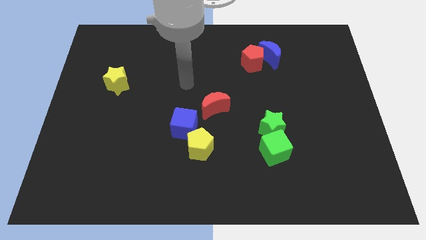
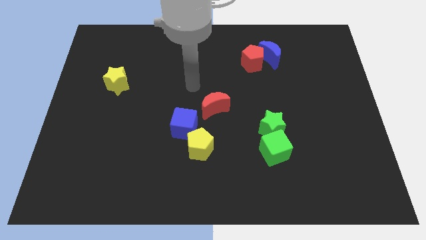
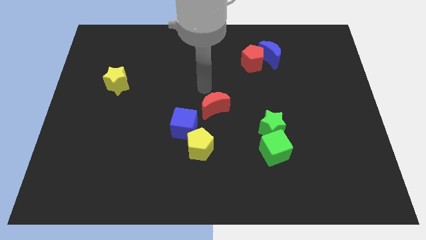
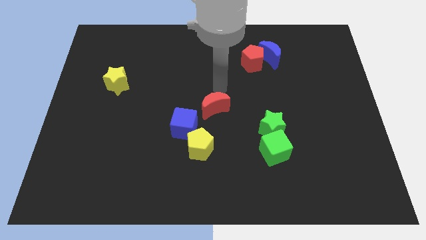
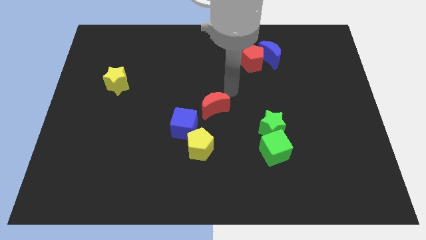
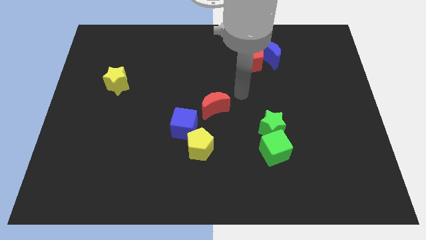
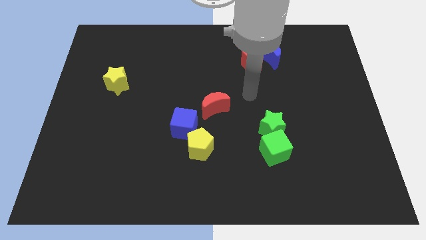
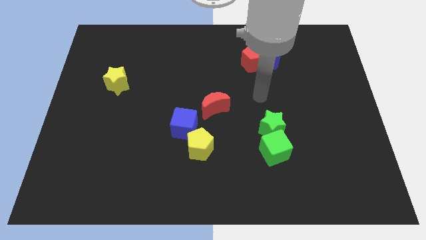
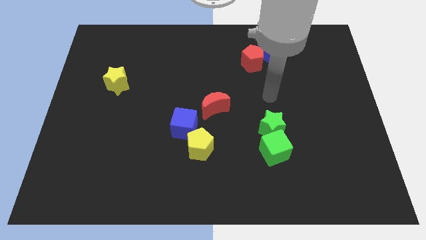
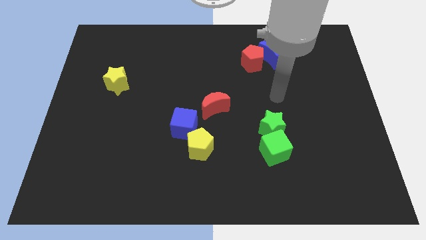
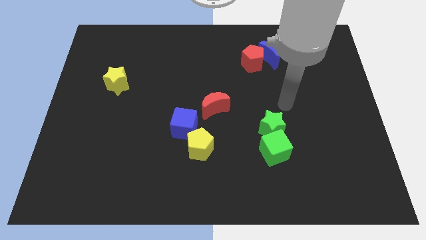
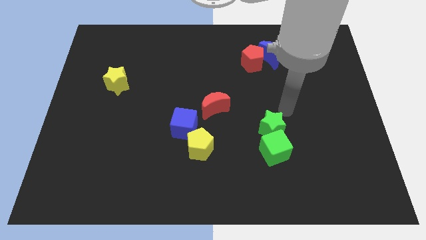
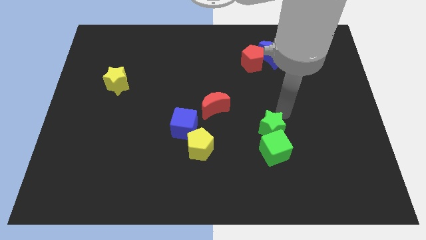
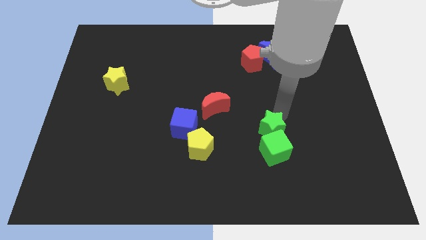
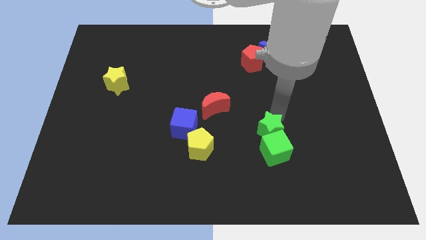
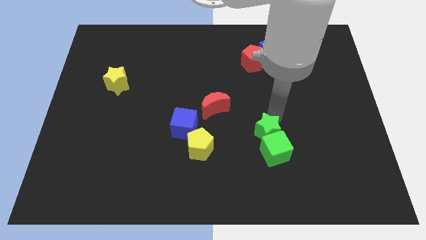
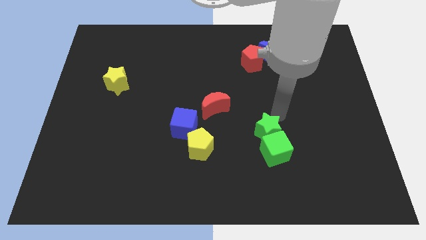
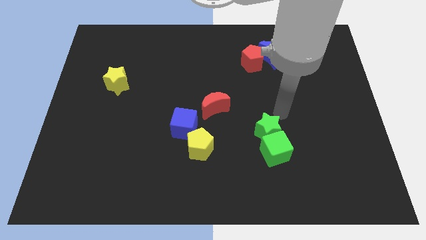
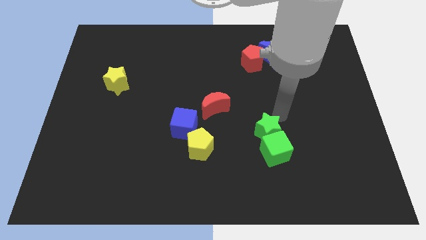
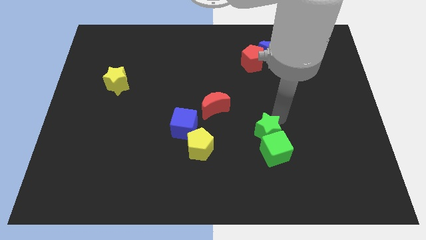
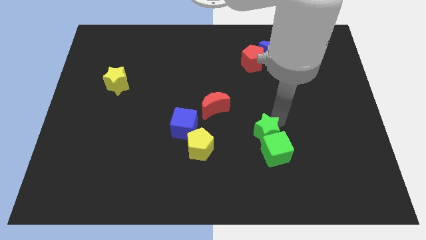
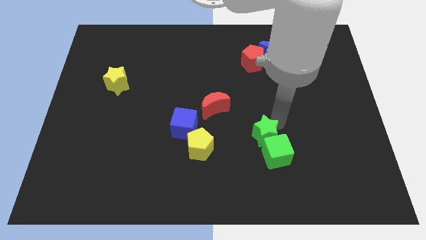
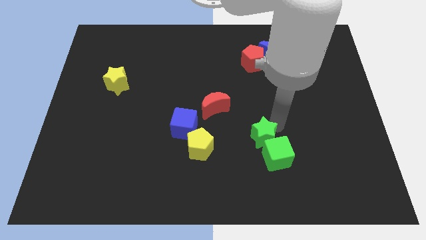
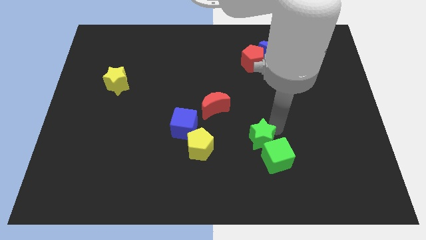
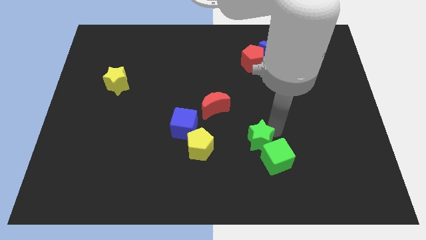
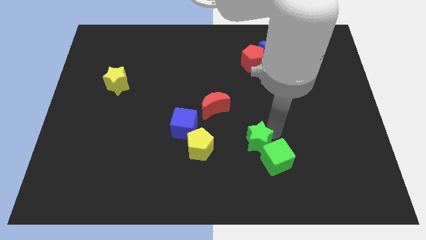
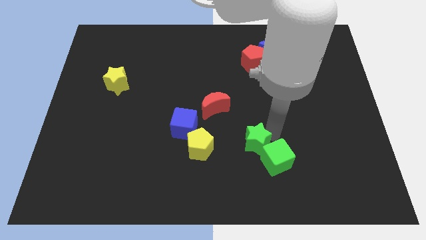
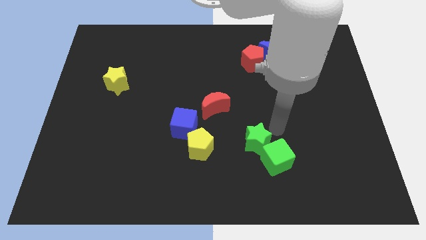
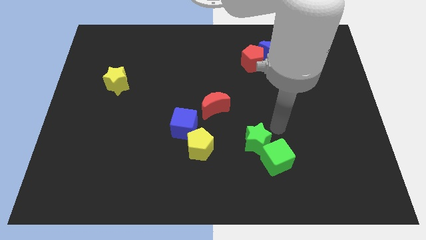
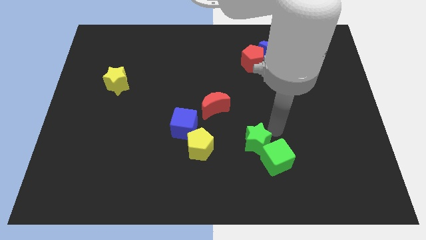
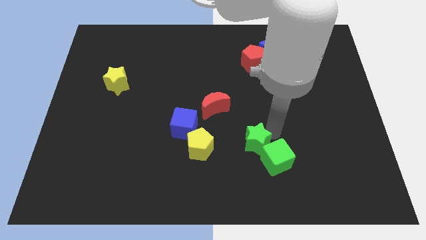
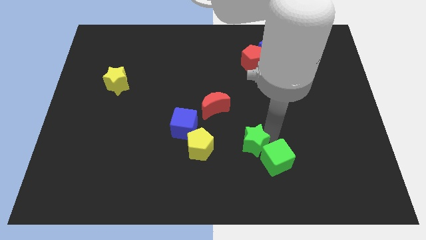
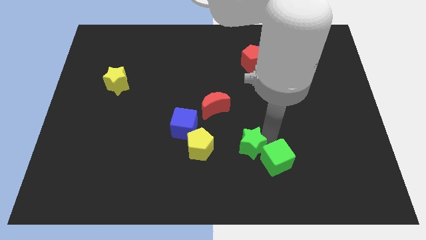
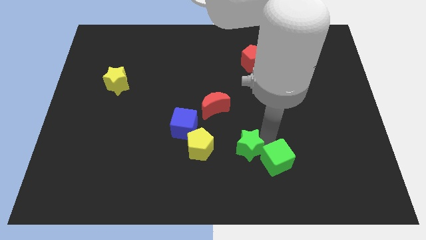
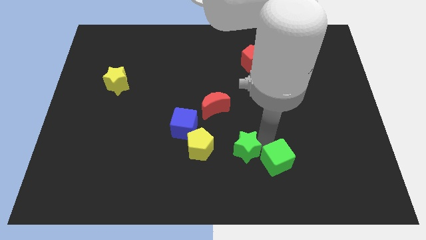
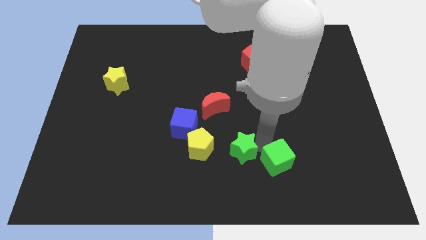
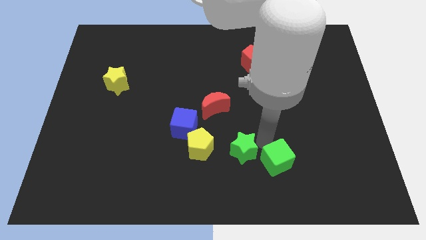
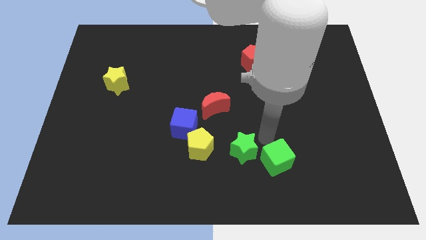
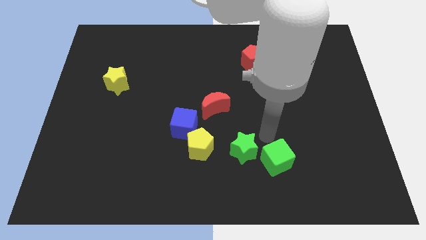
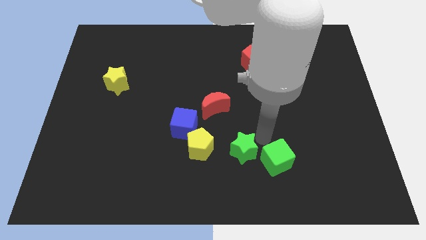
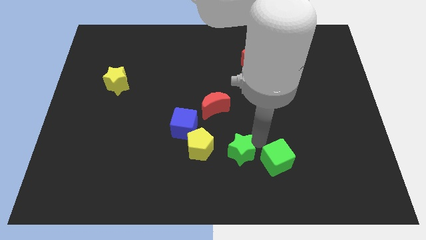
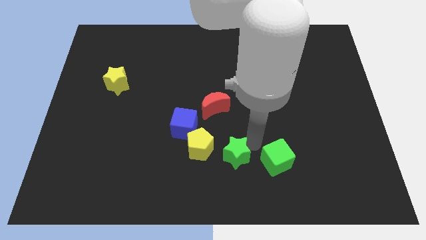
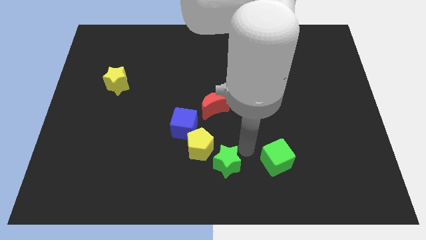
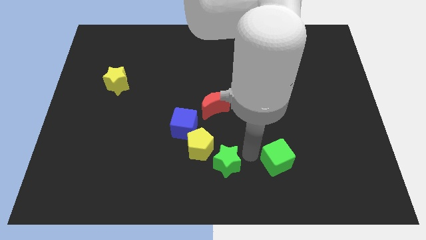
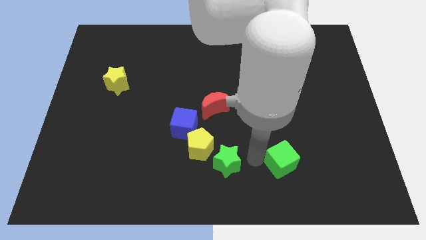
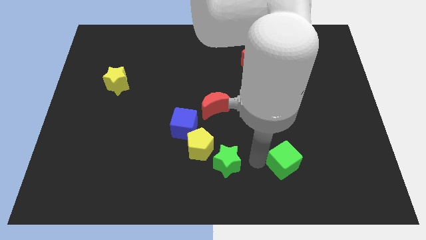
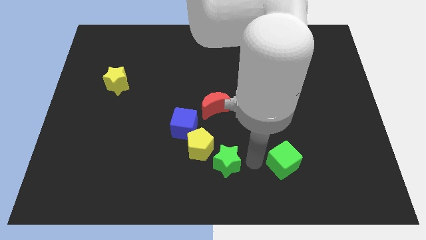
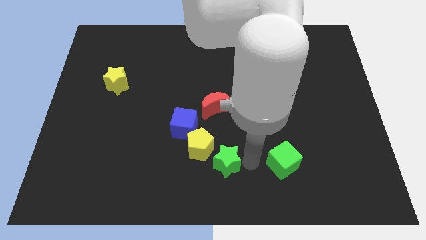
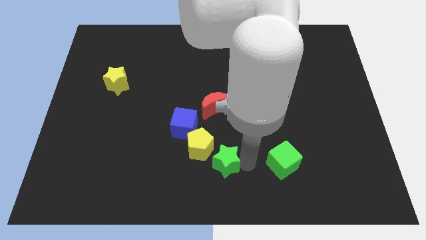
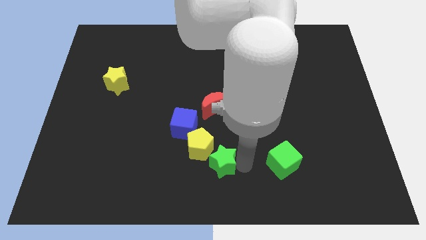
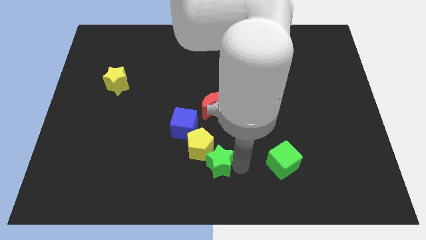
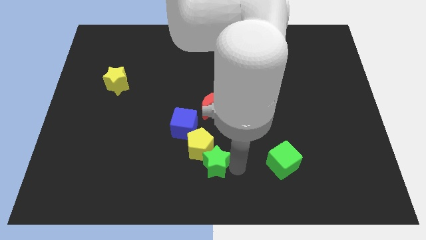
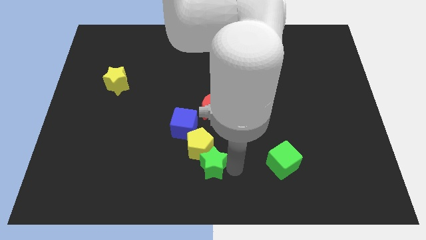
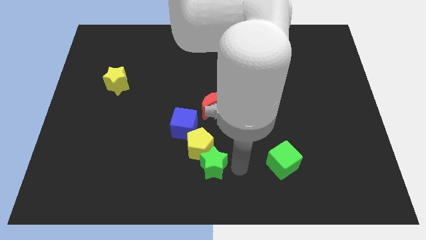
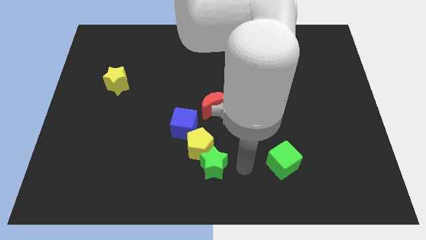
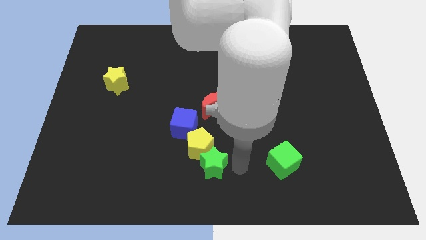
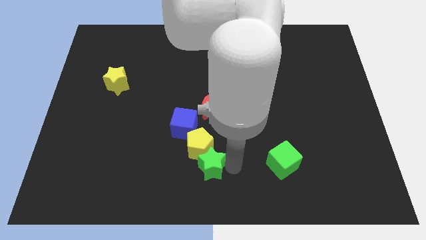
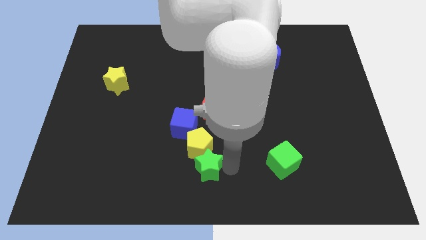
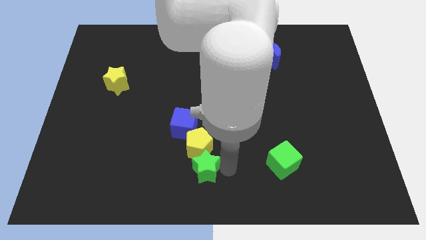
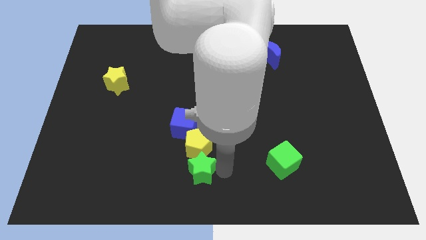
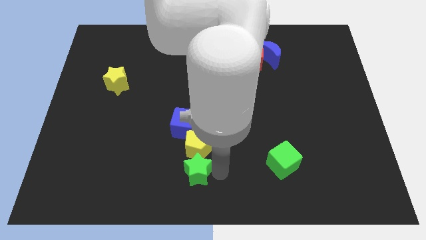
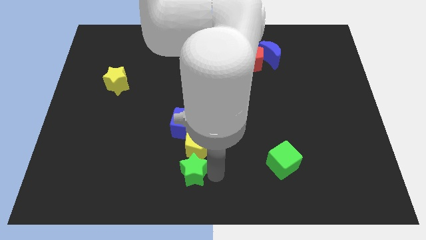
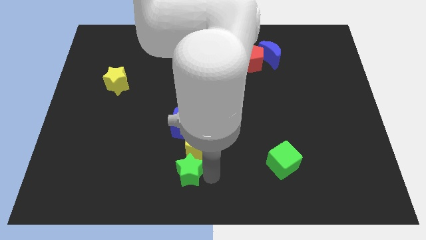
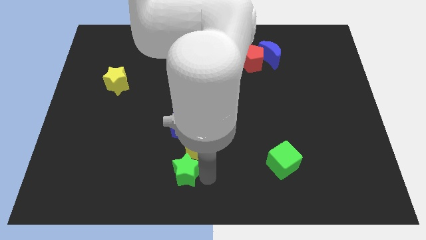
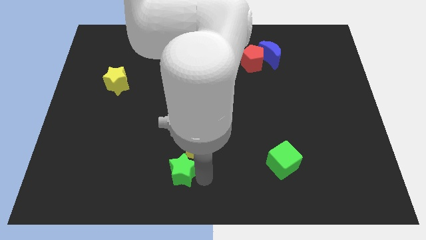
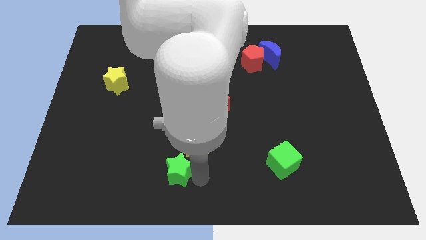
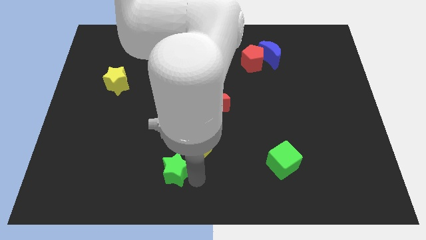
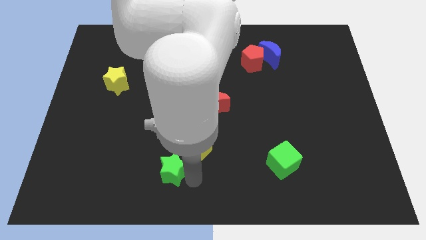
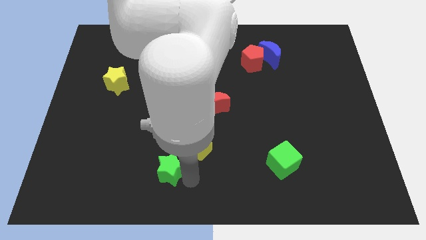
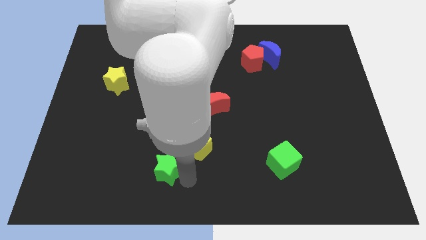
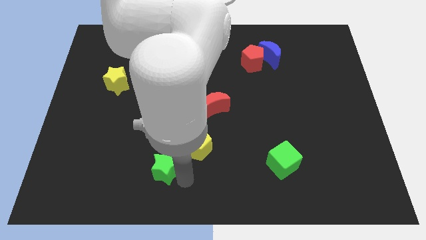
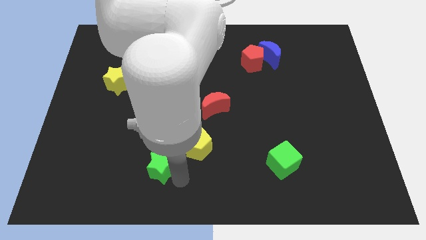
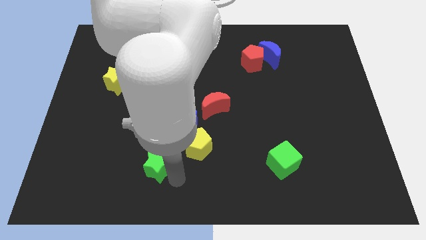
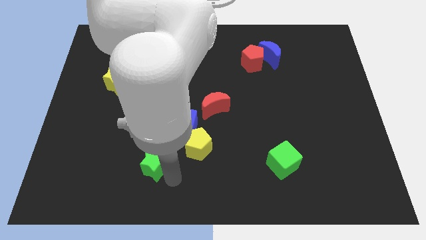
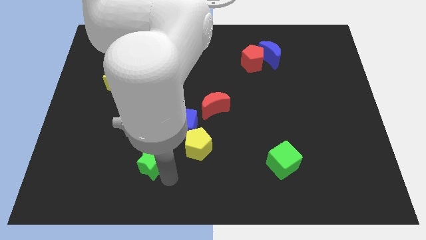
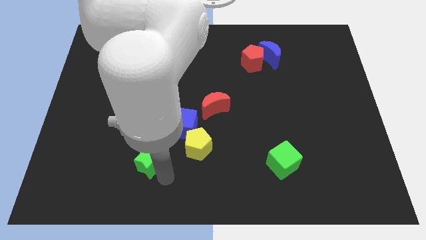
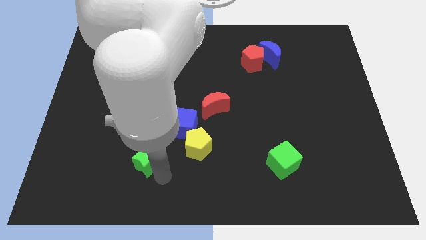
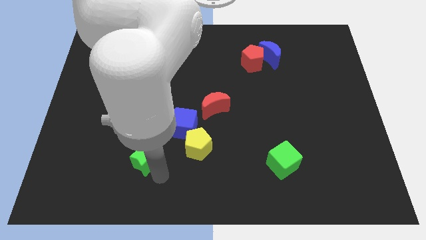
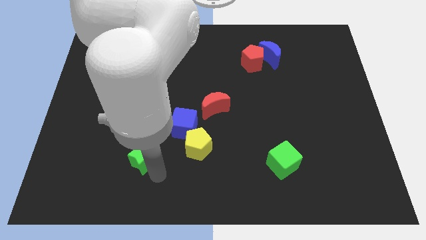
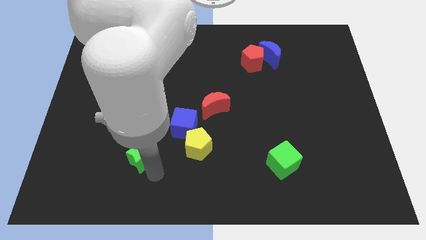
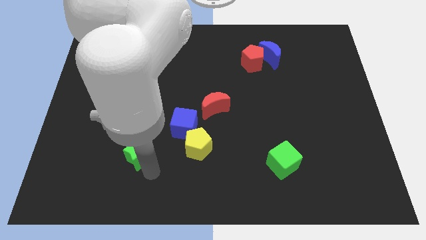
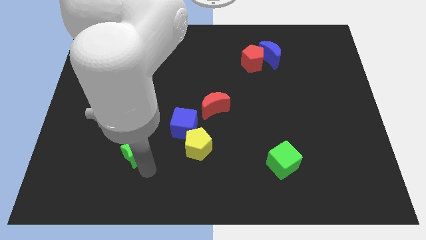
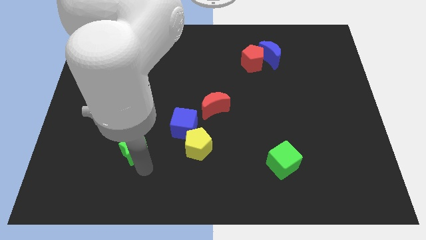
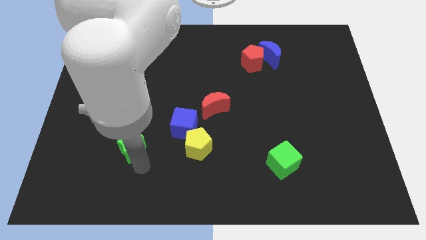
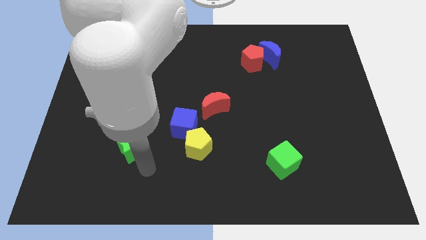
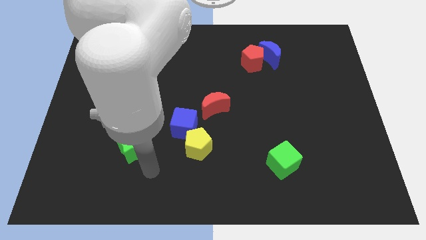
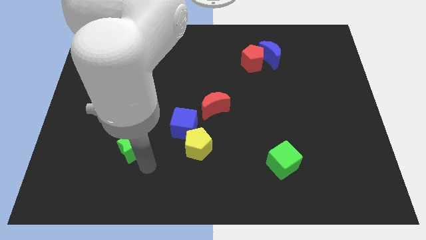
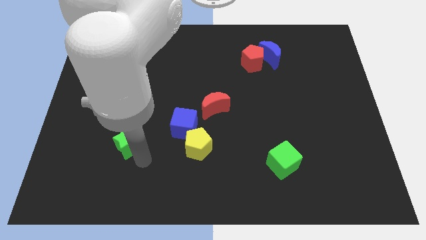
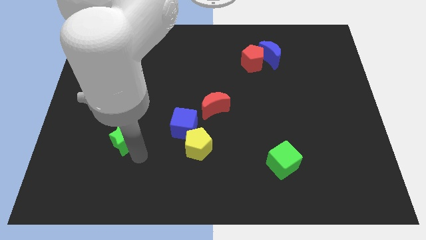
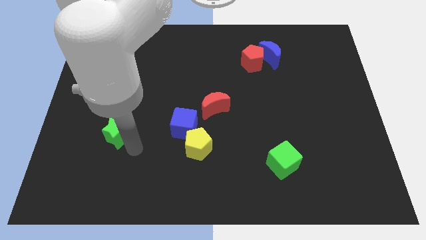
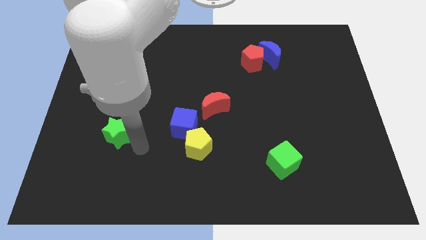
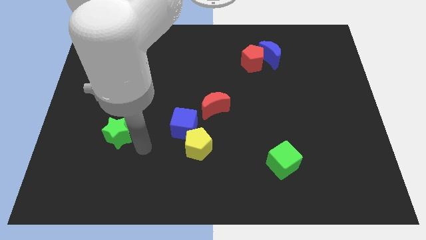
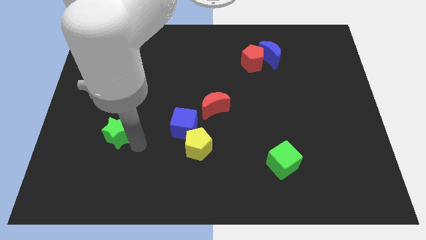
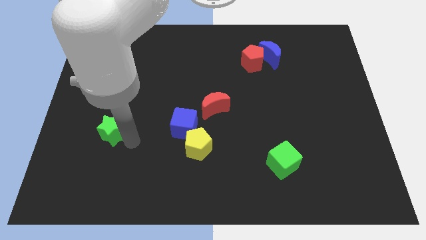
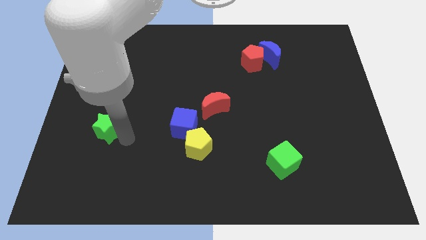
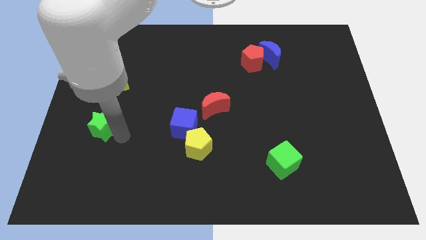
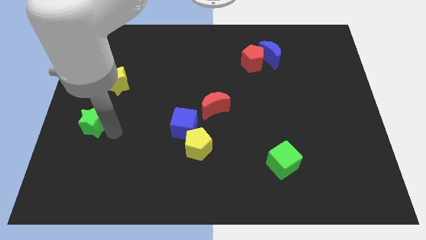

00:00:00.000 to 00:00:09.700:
slide the green star to the left side of the board
